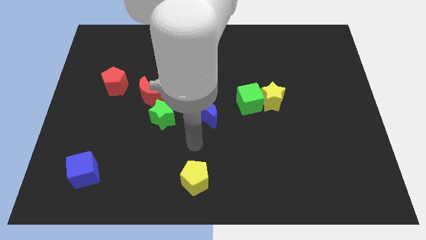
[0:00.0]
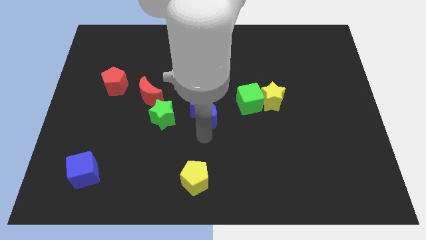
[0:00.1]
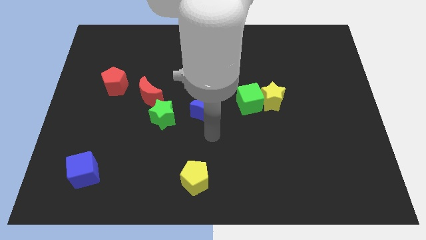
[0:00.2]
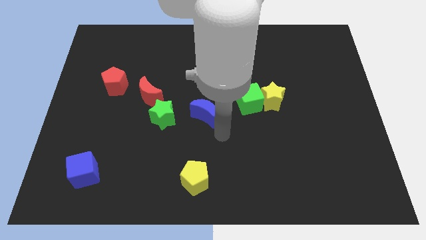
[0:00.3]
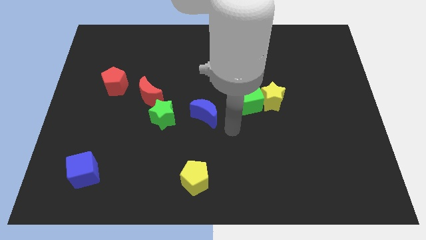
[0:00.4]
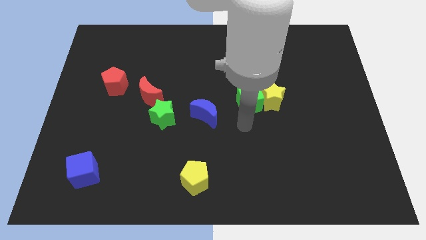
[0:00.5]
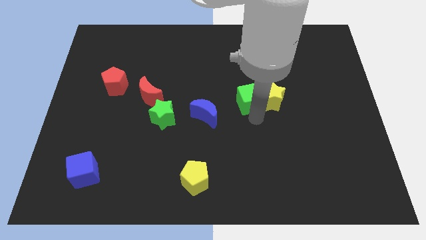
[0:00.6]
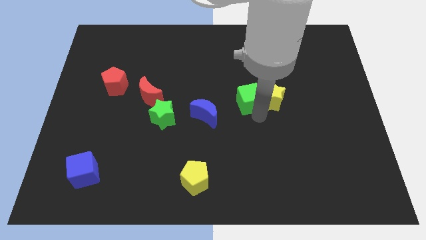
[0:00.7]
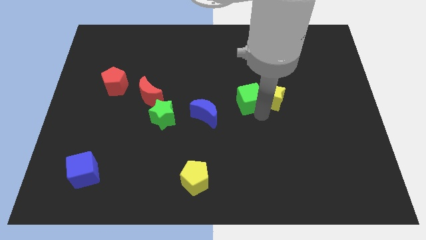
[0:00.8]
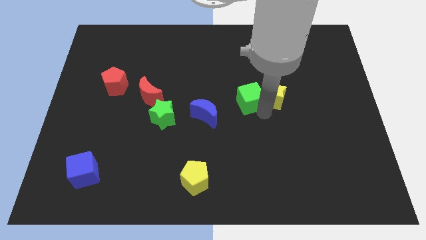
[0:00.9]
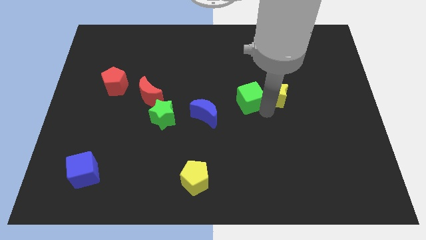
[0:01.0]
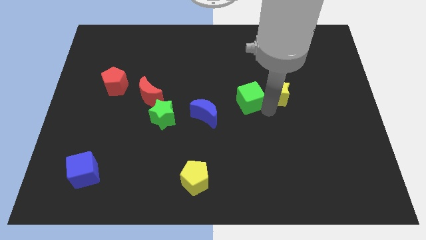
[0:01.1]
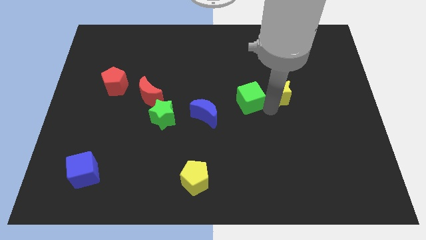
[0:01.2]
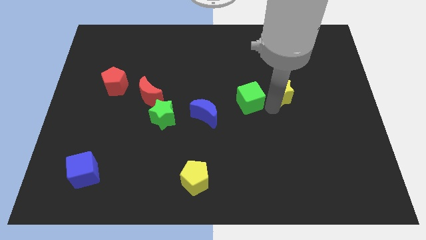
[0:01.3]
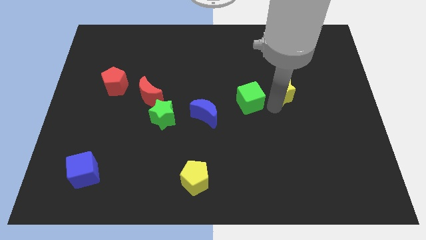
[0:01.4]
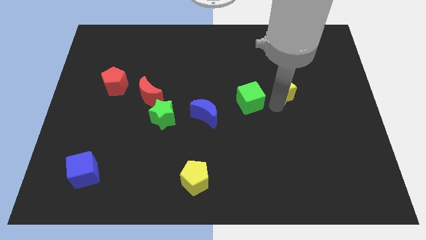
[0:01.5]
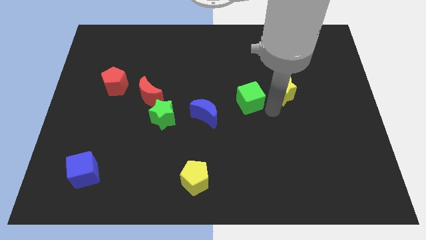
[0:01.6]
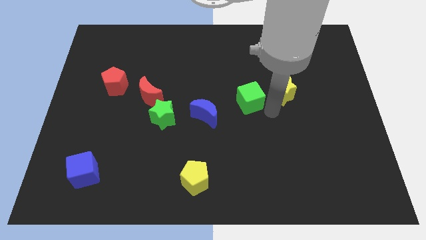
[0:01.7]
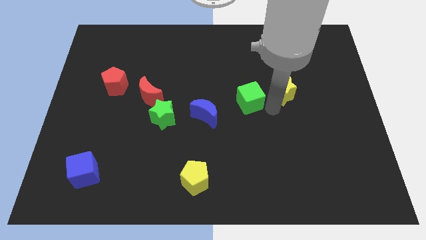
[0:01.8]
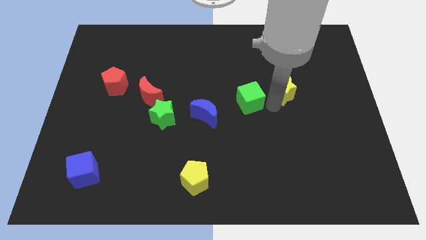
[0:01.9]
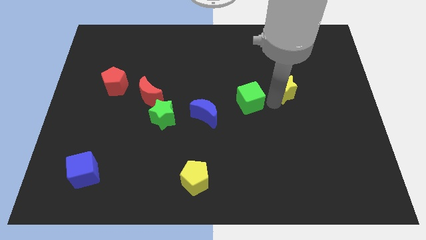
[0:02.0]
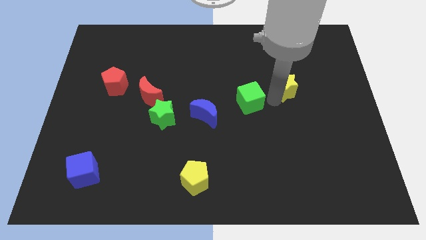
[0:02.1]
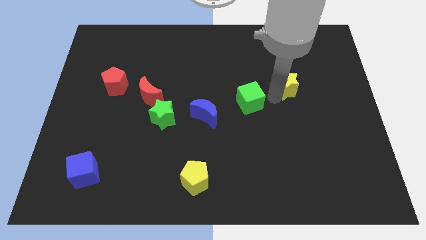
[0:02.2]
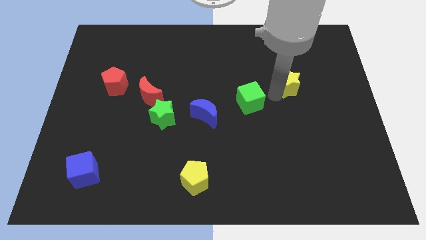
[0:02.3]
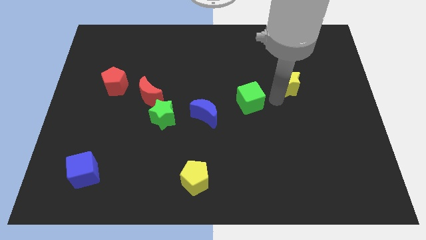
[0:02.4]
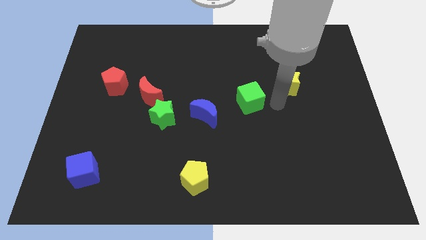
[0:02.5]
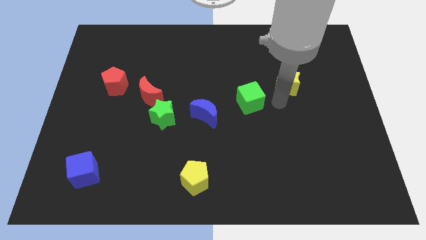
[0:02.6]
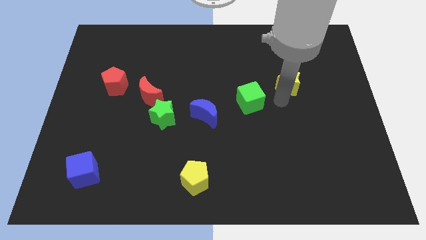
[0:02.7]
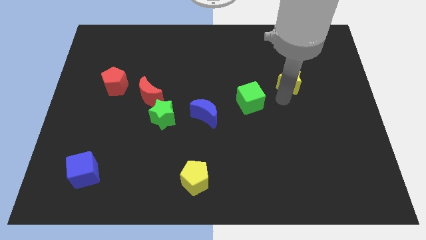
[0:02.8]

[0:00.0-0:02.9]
move the yellow star up and then right a little

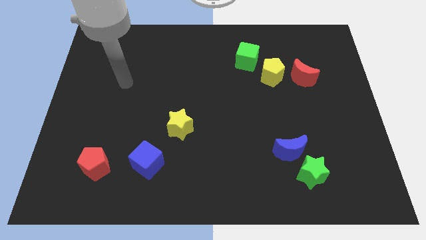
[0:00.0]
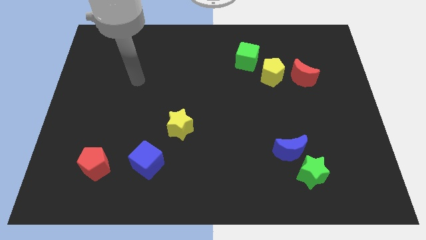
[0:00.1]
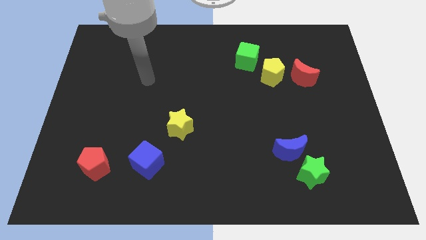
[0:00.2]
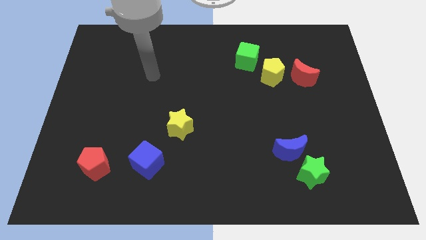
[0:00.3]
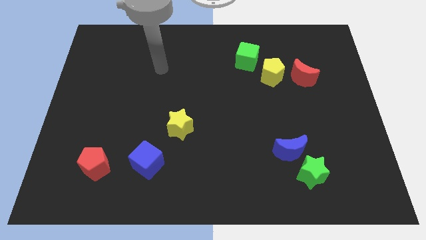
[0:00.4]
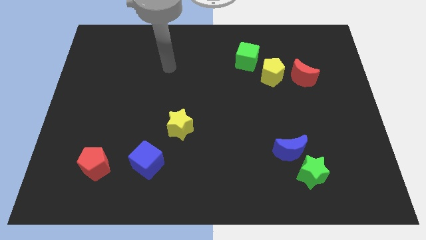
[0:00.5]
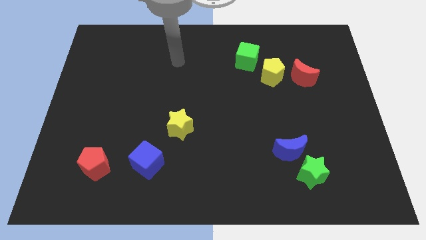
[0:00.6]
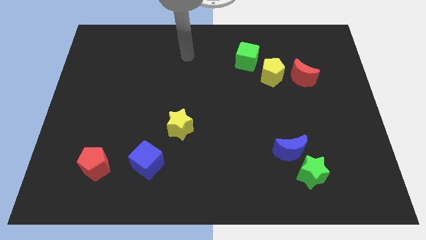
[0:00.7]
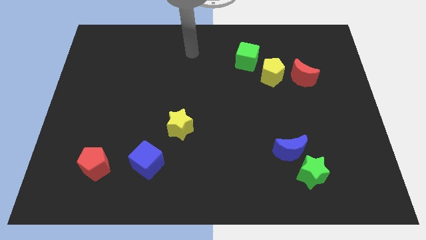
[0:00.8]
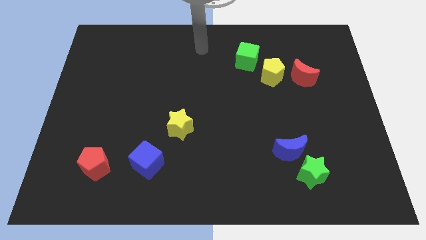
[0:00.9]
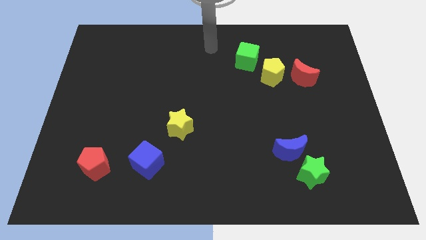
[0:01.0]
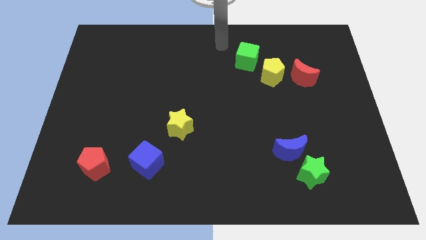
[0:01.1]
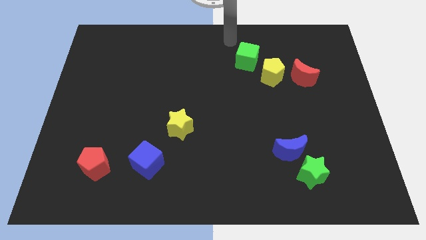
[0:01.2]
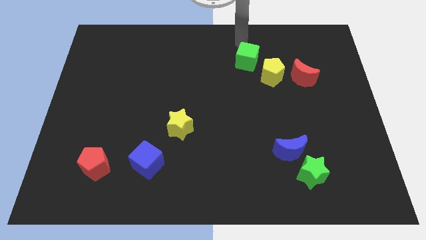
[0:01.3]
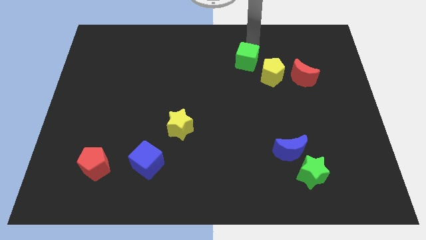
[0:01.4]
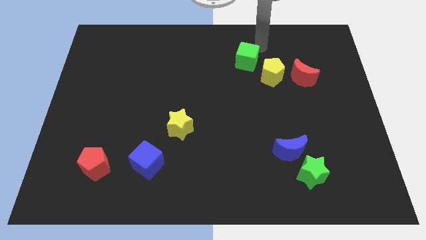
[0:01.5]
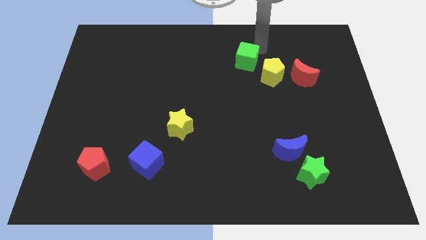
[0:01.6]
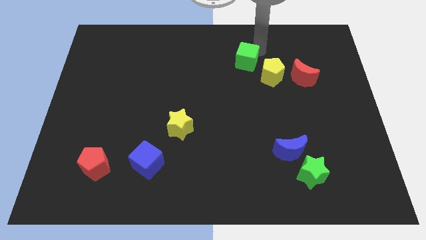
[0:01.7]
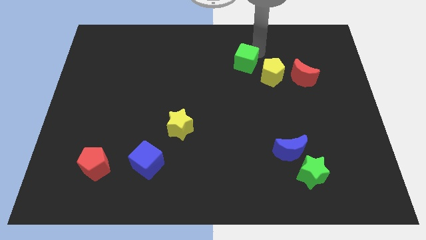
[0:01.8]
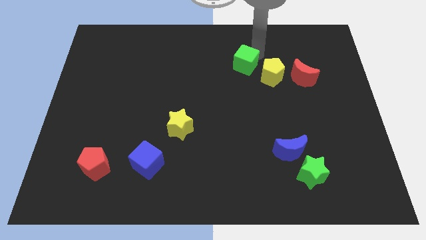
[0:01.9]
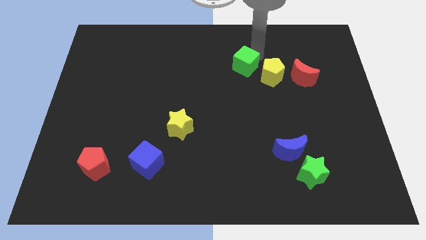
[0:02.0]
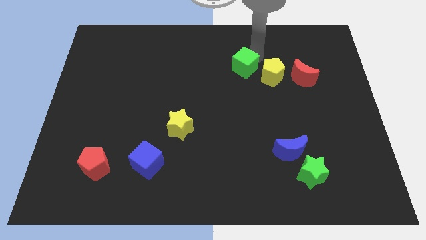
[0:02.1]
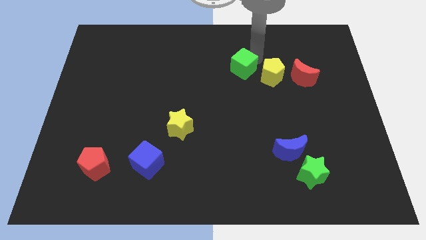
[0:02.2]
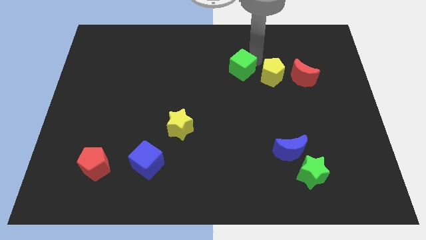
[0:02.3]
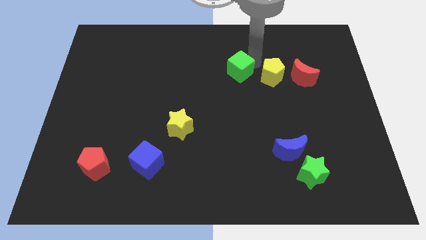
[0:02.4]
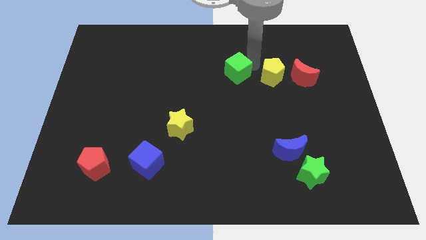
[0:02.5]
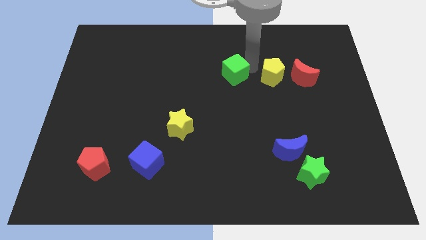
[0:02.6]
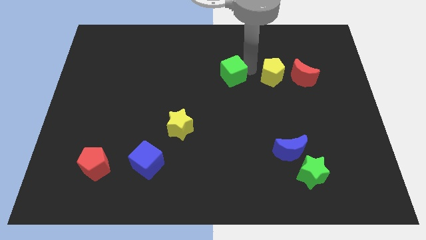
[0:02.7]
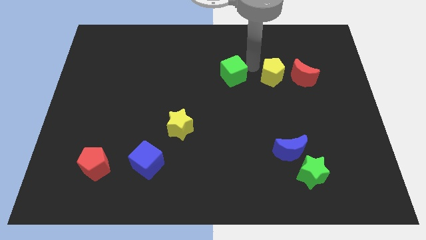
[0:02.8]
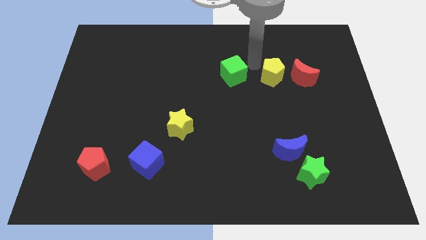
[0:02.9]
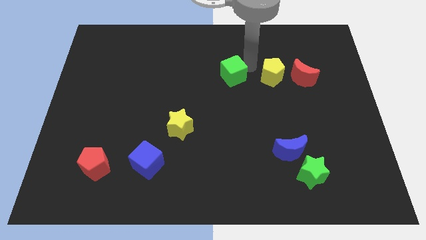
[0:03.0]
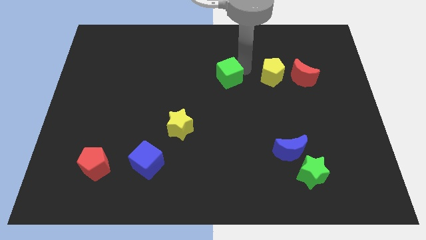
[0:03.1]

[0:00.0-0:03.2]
slightly move the green cube diagonally downwards and to the left

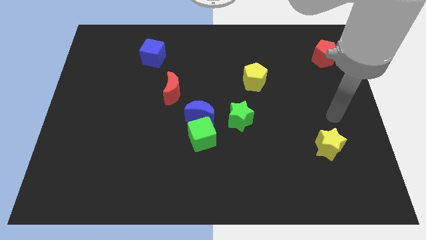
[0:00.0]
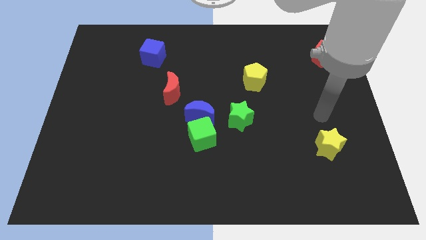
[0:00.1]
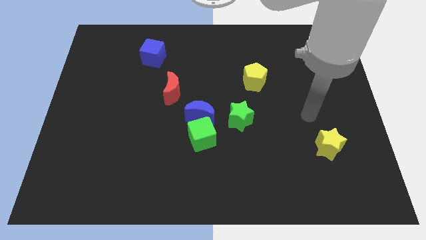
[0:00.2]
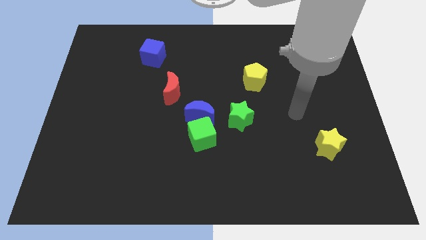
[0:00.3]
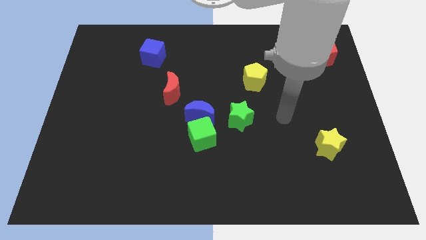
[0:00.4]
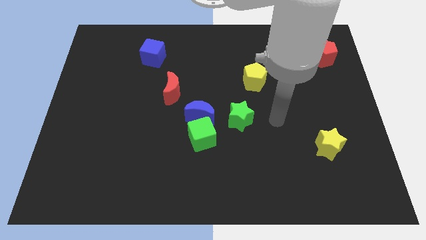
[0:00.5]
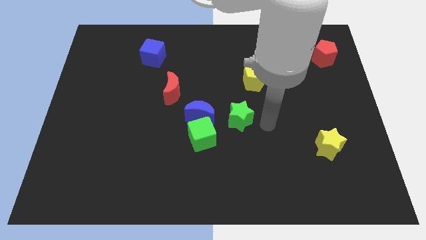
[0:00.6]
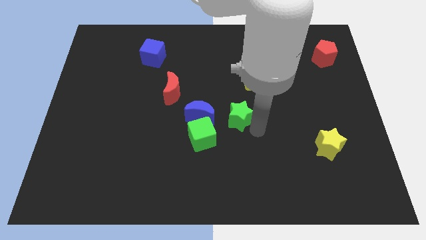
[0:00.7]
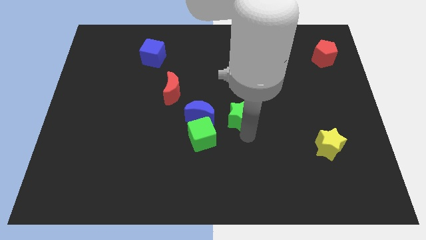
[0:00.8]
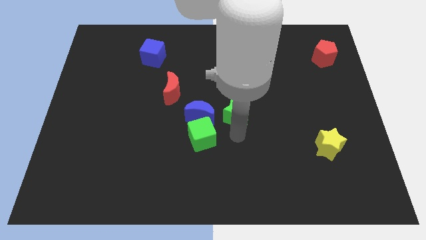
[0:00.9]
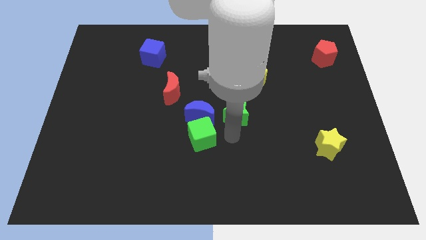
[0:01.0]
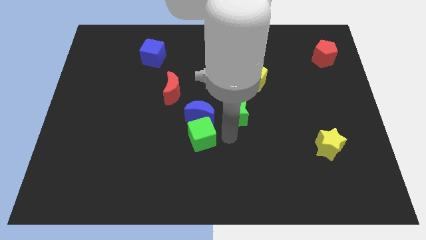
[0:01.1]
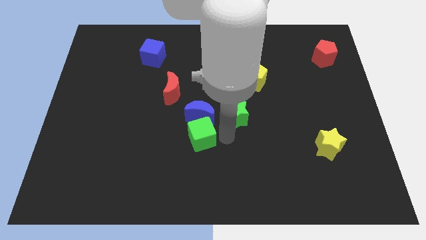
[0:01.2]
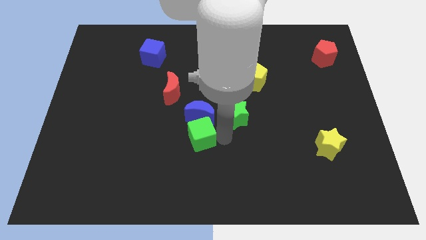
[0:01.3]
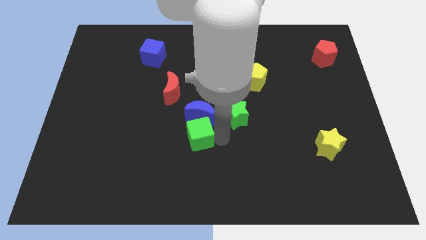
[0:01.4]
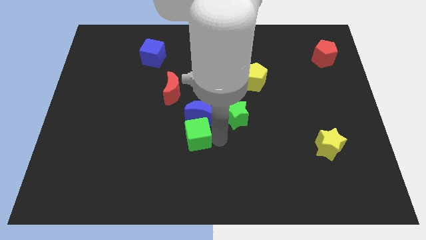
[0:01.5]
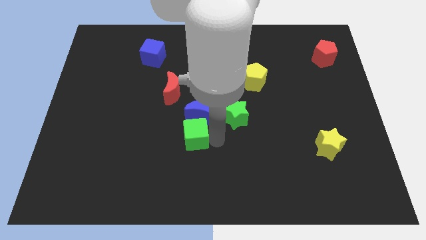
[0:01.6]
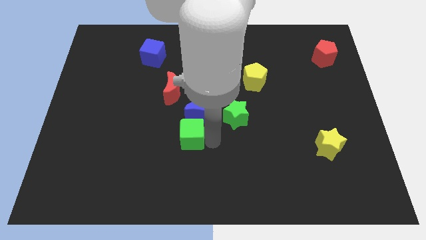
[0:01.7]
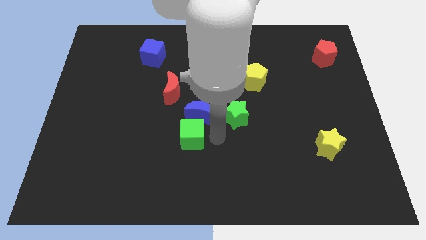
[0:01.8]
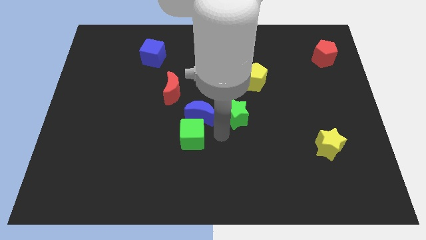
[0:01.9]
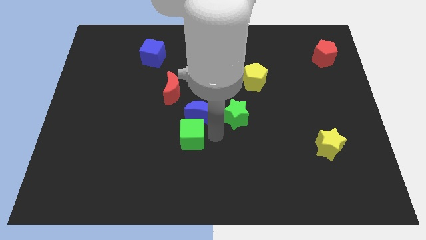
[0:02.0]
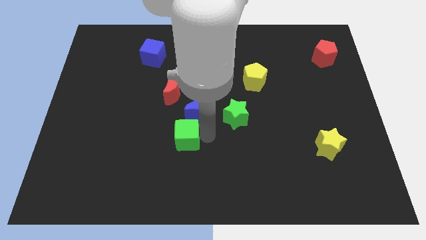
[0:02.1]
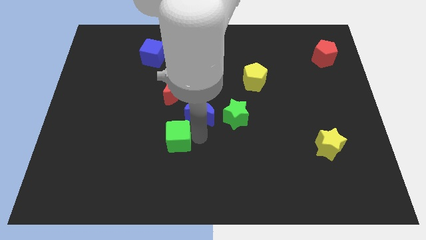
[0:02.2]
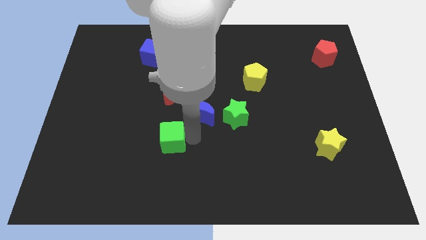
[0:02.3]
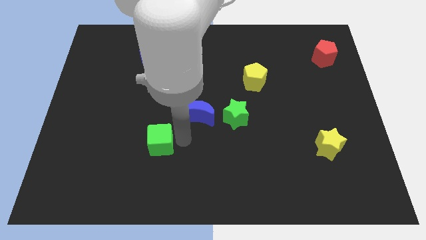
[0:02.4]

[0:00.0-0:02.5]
slide the green cube left a little
